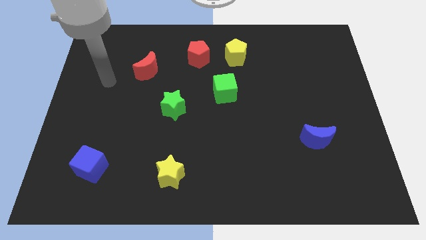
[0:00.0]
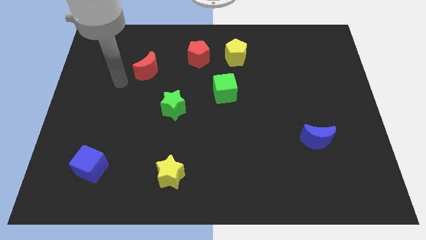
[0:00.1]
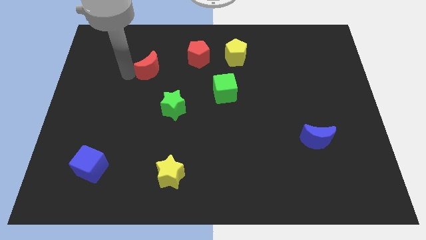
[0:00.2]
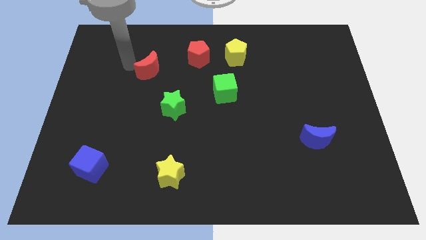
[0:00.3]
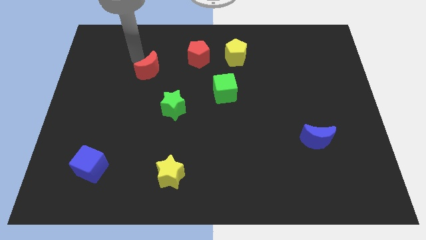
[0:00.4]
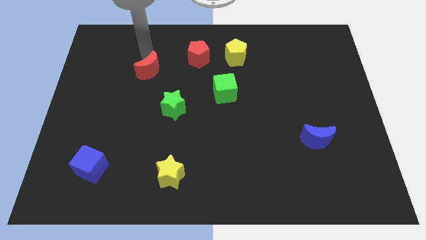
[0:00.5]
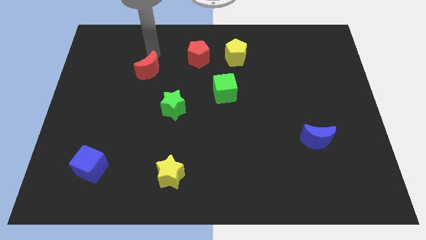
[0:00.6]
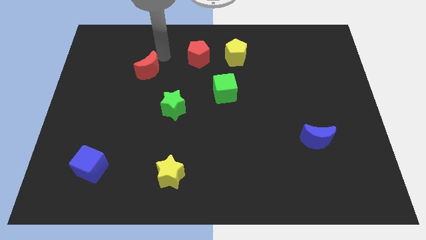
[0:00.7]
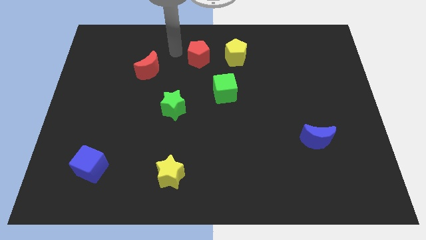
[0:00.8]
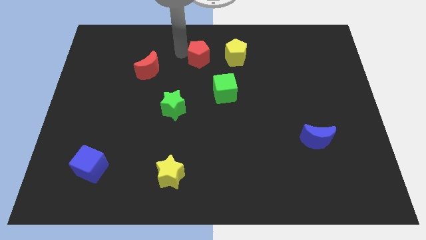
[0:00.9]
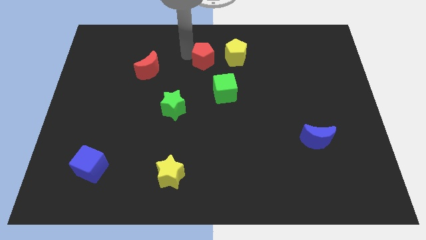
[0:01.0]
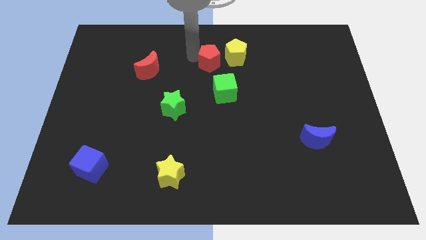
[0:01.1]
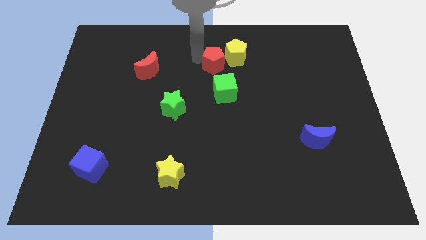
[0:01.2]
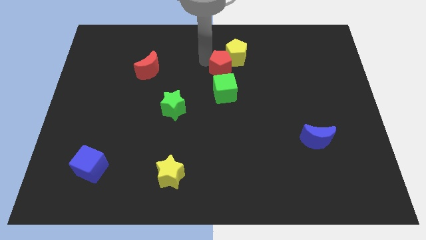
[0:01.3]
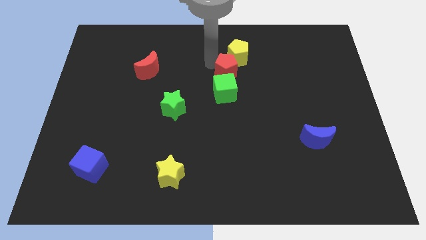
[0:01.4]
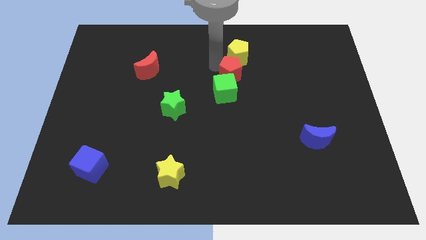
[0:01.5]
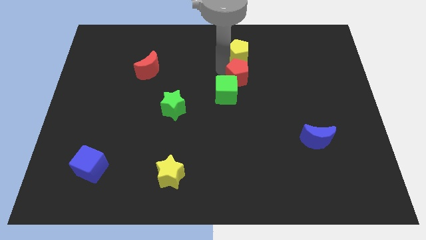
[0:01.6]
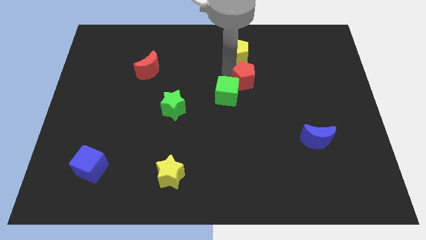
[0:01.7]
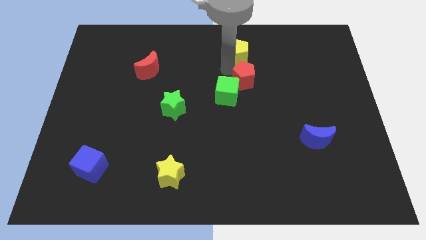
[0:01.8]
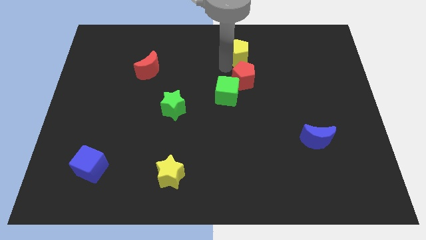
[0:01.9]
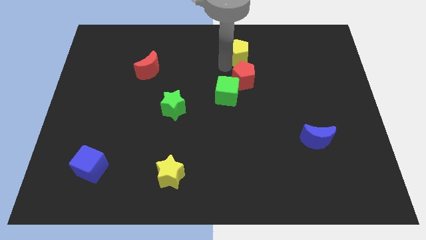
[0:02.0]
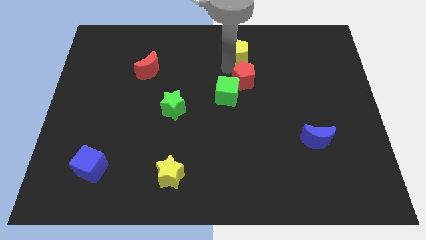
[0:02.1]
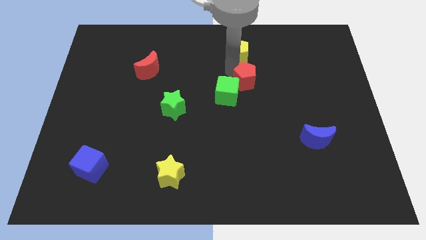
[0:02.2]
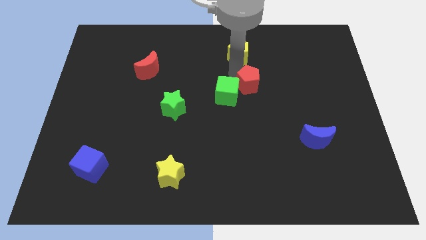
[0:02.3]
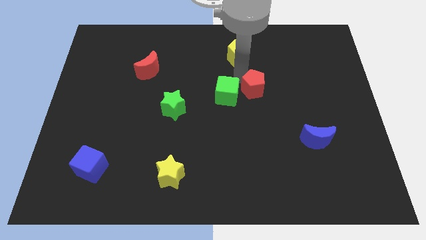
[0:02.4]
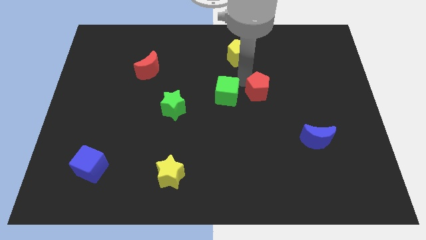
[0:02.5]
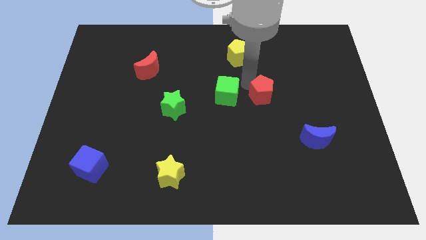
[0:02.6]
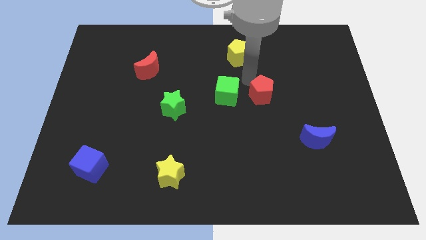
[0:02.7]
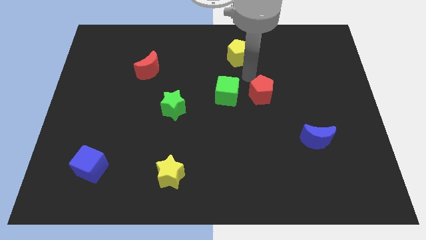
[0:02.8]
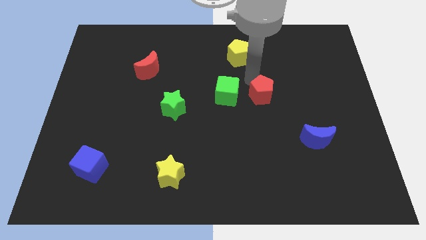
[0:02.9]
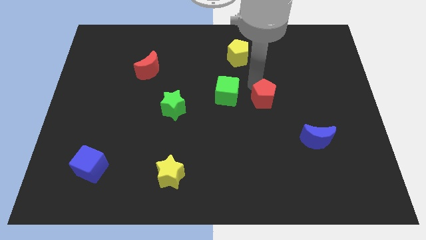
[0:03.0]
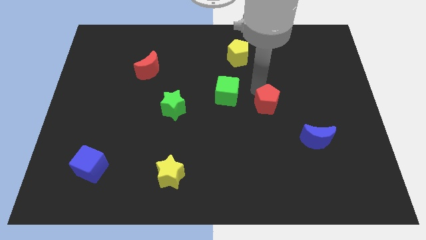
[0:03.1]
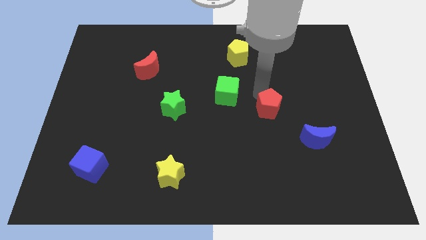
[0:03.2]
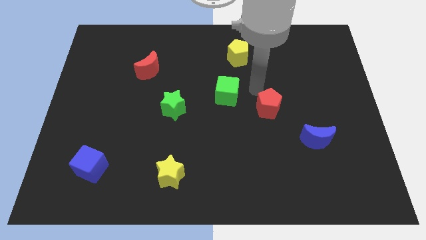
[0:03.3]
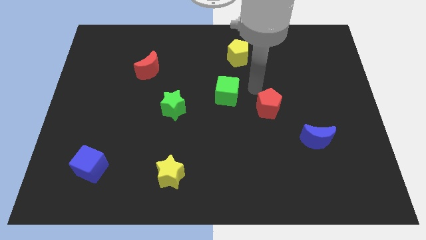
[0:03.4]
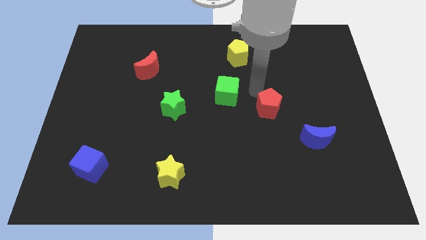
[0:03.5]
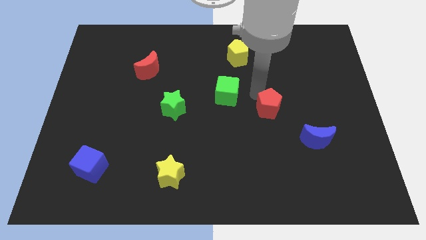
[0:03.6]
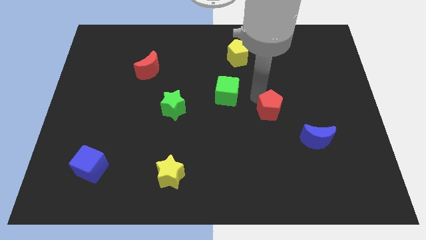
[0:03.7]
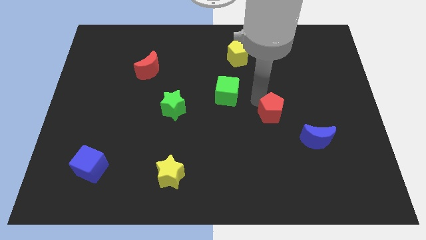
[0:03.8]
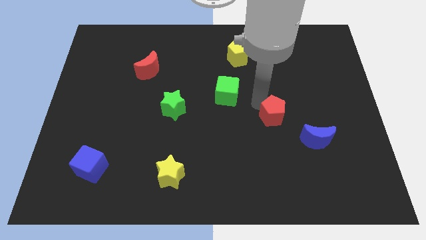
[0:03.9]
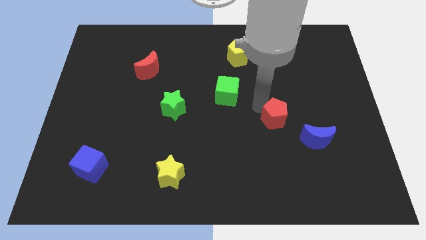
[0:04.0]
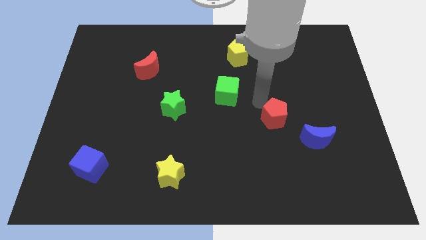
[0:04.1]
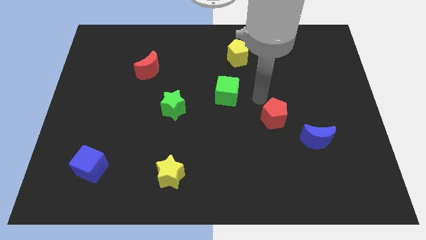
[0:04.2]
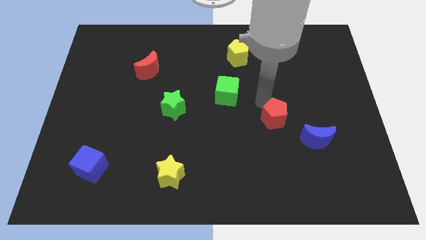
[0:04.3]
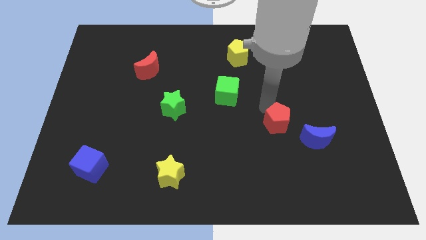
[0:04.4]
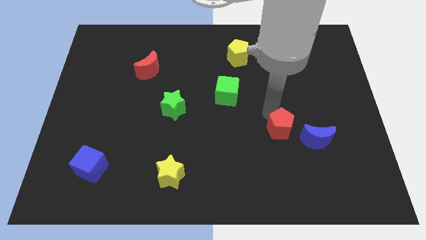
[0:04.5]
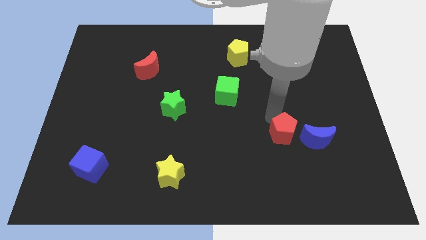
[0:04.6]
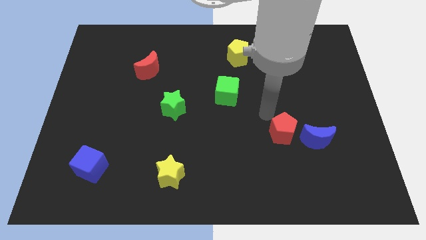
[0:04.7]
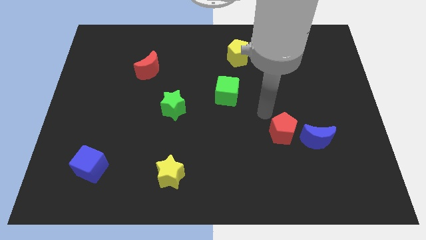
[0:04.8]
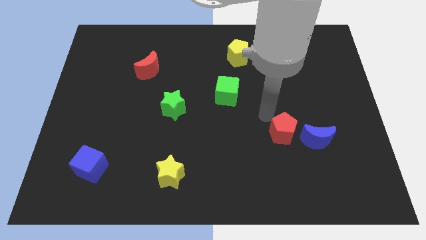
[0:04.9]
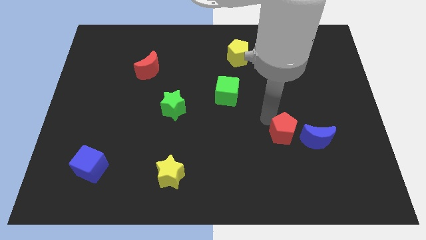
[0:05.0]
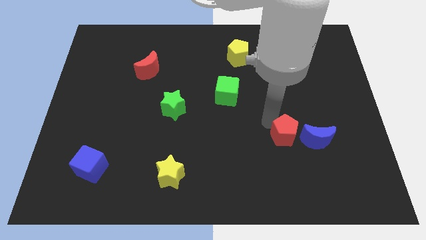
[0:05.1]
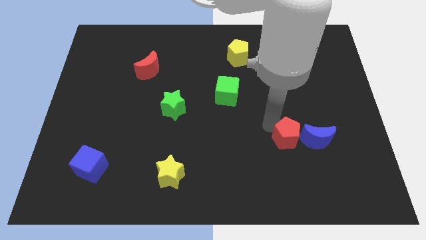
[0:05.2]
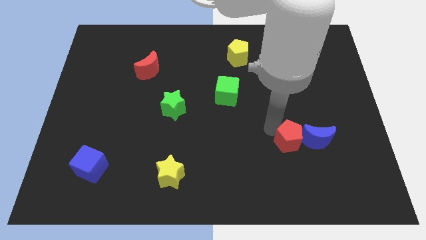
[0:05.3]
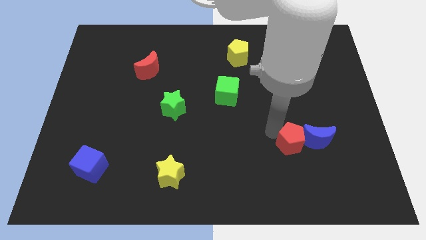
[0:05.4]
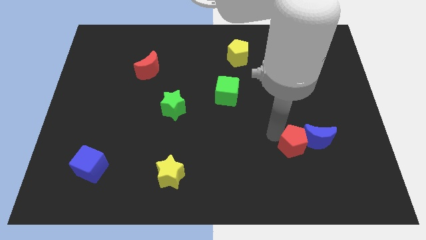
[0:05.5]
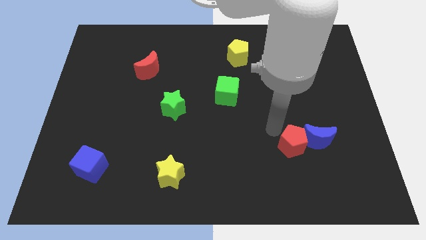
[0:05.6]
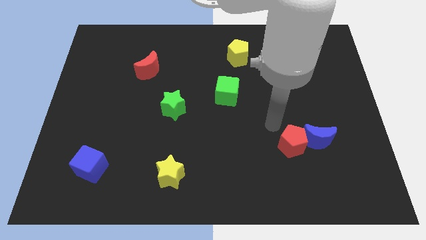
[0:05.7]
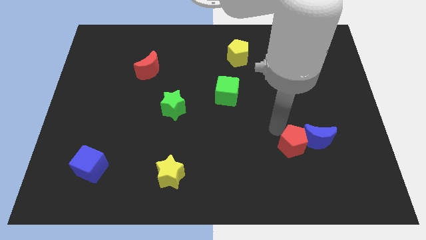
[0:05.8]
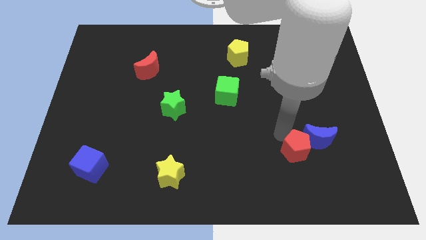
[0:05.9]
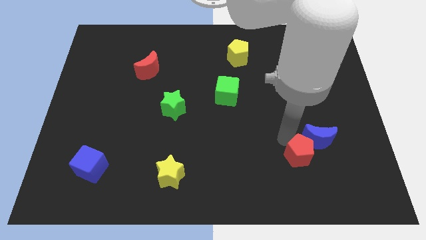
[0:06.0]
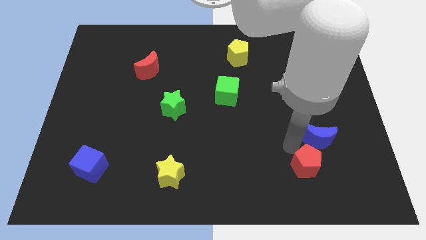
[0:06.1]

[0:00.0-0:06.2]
put the red pentagon to the bottom of the blue moon
